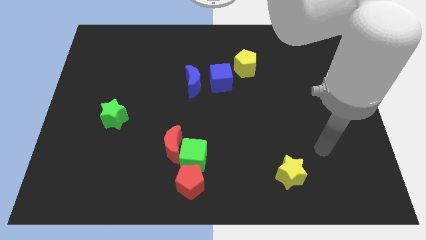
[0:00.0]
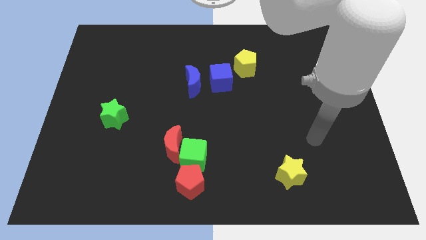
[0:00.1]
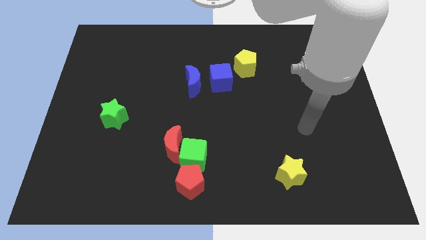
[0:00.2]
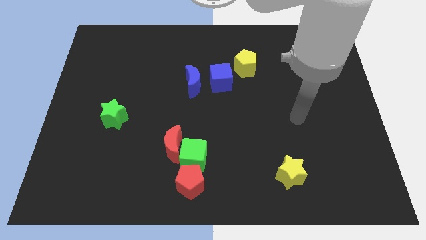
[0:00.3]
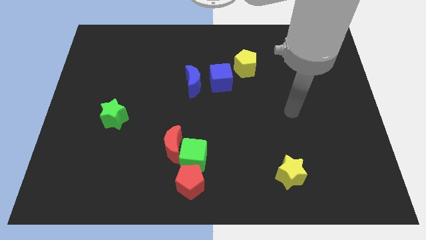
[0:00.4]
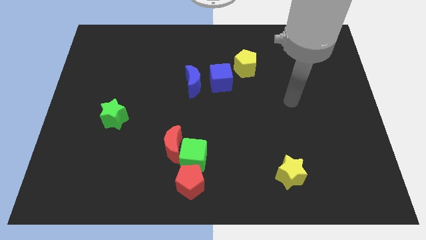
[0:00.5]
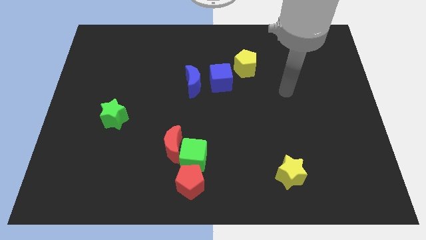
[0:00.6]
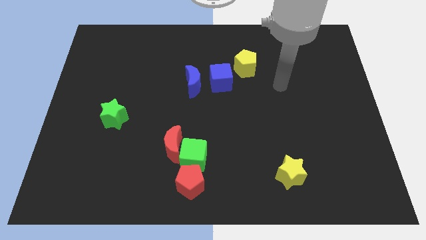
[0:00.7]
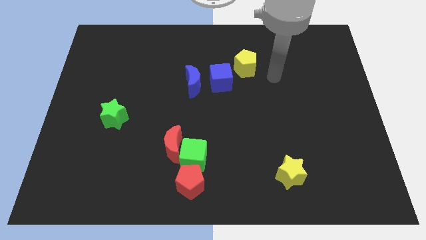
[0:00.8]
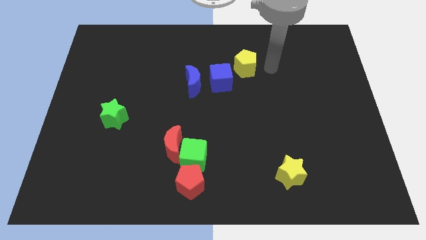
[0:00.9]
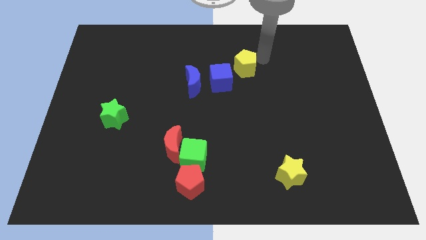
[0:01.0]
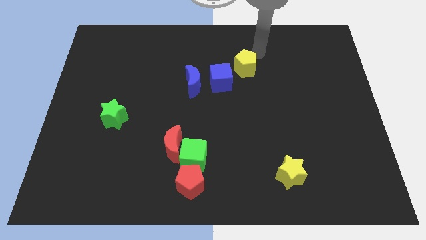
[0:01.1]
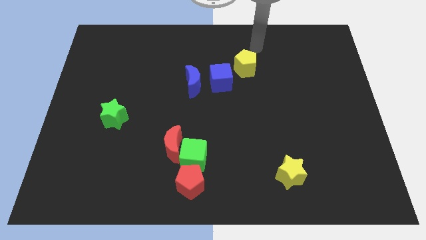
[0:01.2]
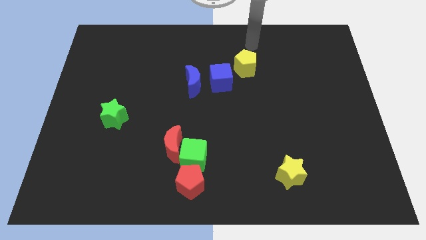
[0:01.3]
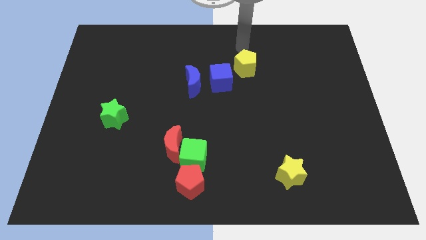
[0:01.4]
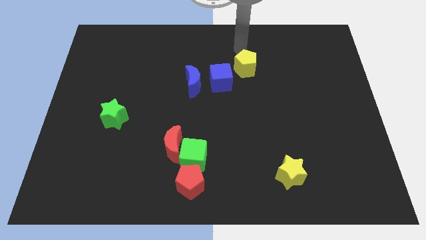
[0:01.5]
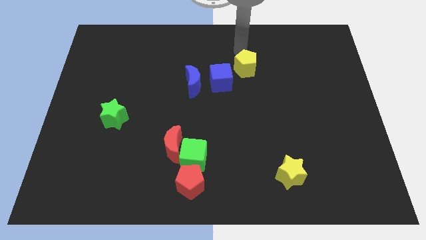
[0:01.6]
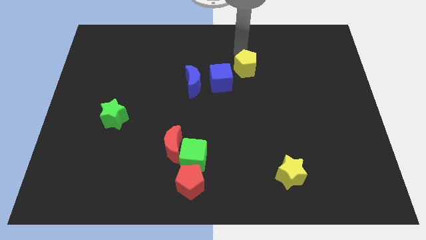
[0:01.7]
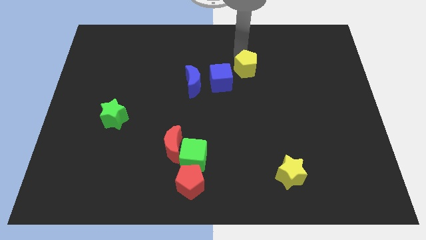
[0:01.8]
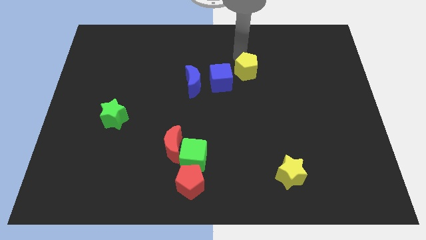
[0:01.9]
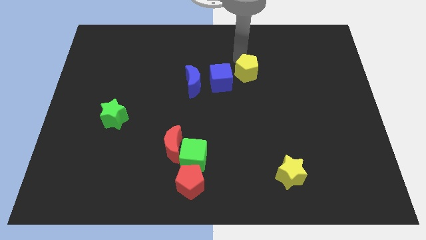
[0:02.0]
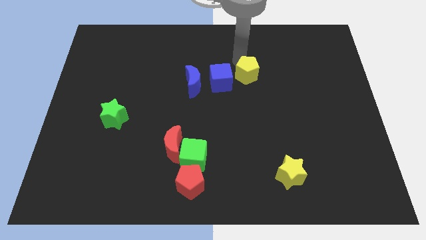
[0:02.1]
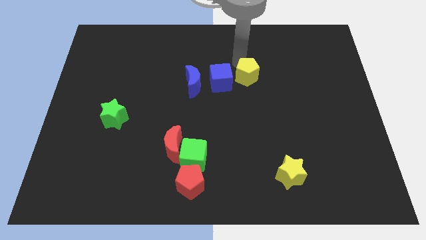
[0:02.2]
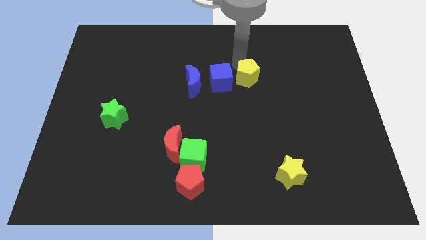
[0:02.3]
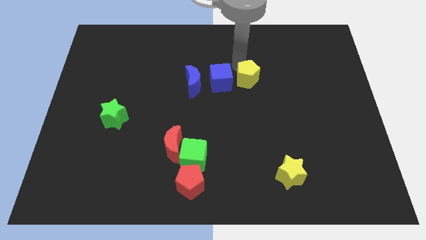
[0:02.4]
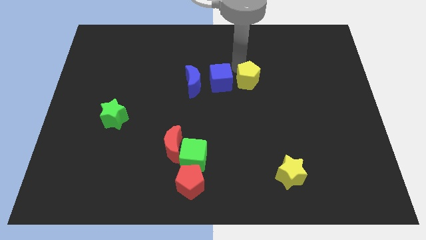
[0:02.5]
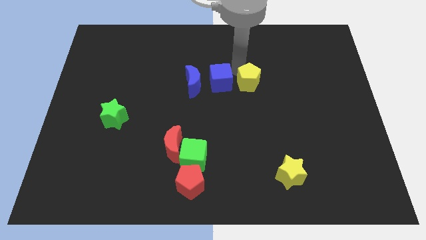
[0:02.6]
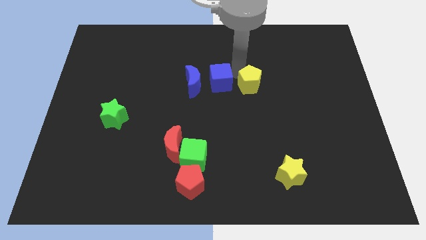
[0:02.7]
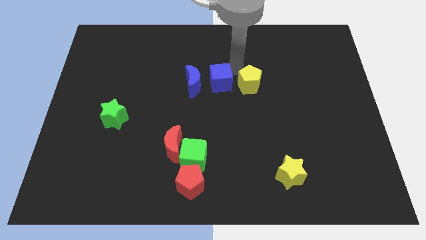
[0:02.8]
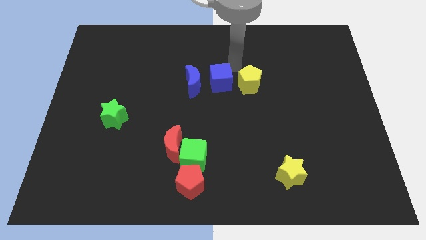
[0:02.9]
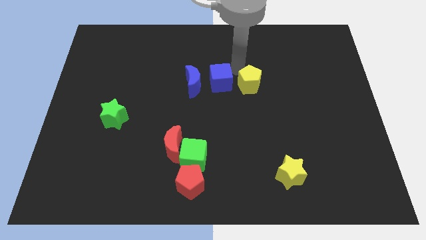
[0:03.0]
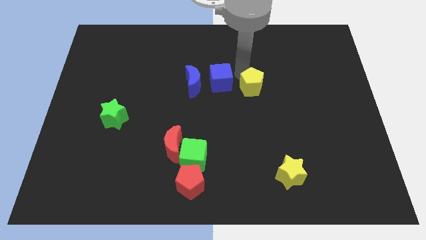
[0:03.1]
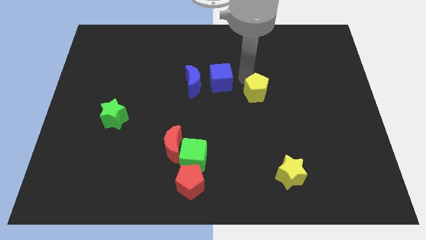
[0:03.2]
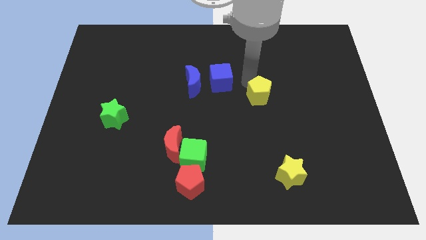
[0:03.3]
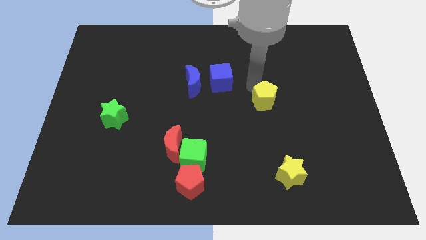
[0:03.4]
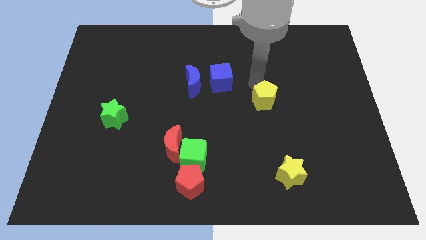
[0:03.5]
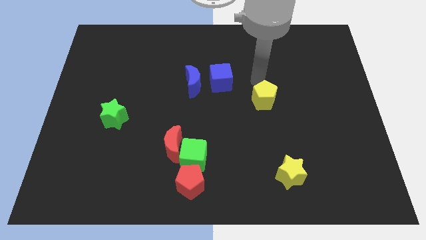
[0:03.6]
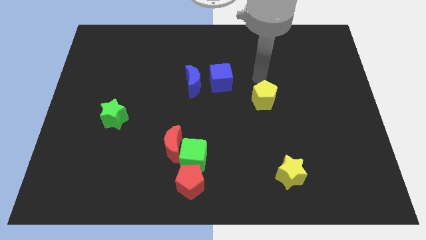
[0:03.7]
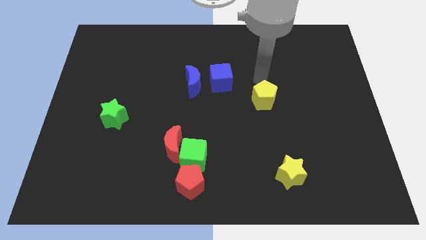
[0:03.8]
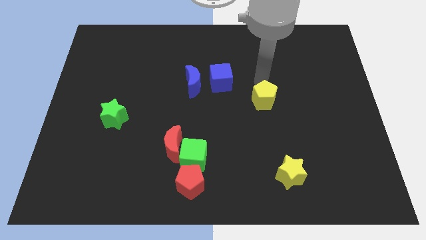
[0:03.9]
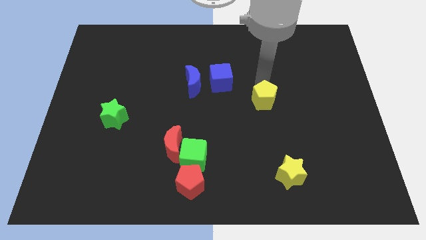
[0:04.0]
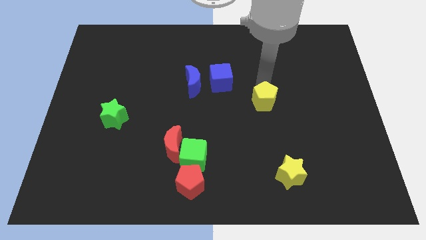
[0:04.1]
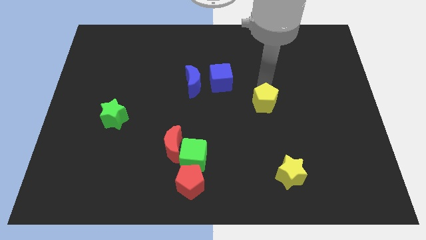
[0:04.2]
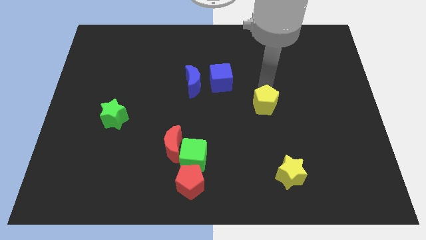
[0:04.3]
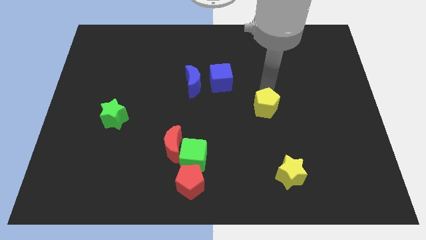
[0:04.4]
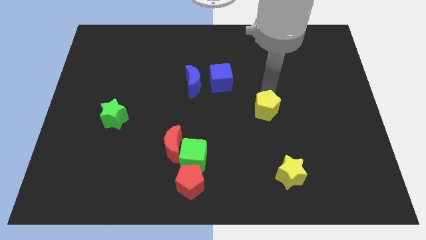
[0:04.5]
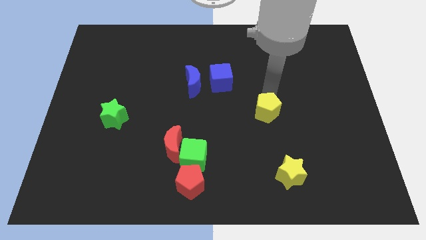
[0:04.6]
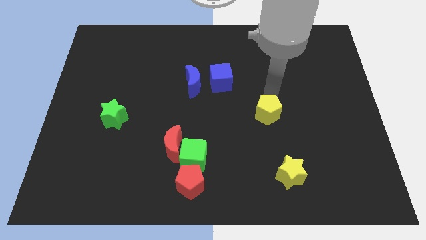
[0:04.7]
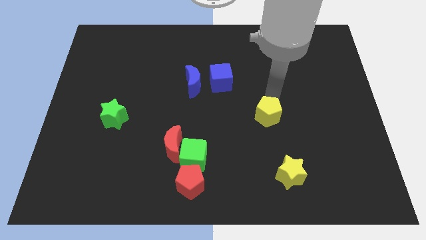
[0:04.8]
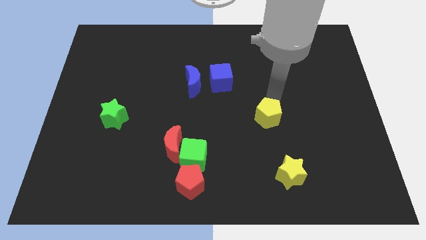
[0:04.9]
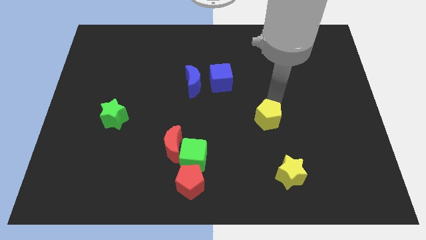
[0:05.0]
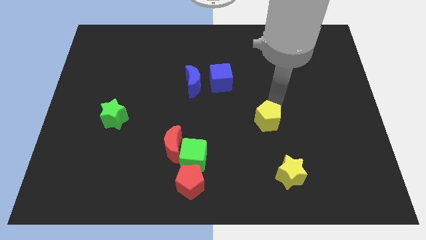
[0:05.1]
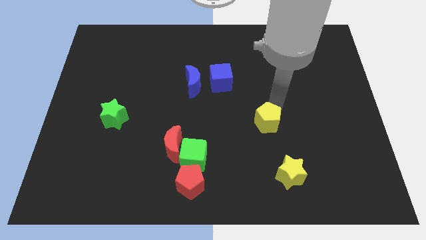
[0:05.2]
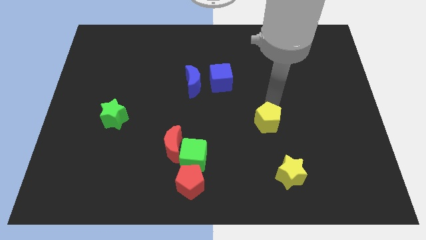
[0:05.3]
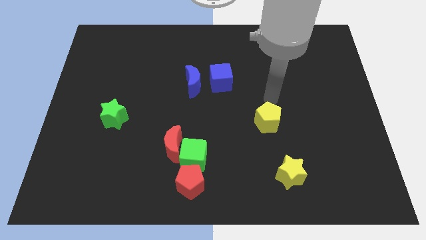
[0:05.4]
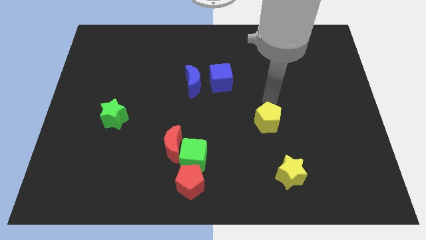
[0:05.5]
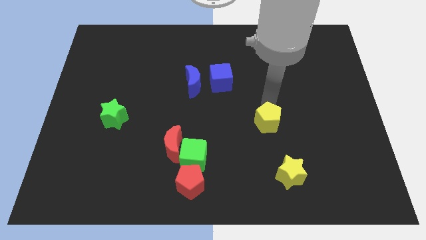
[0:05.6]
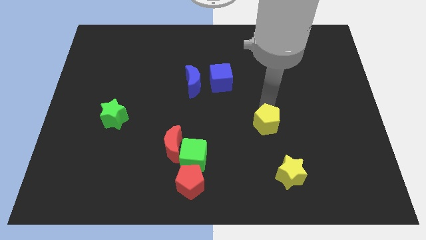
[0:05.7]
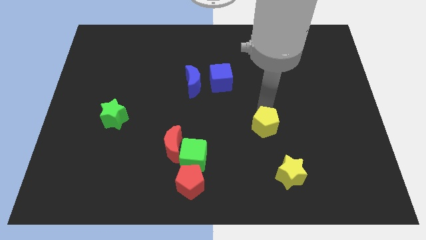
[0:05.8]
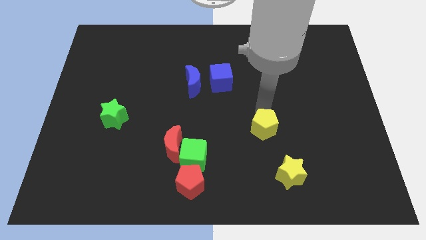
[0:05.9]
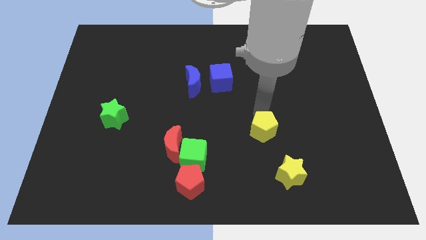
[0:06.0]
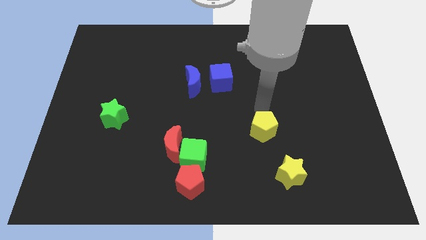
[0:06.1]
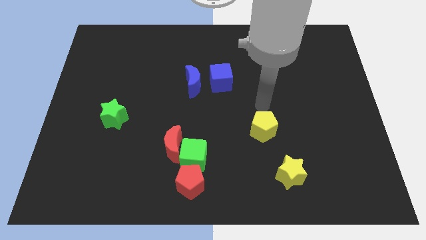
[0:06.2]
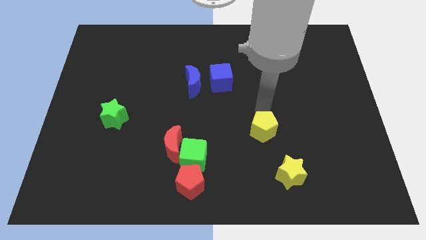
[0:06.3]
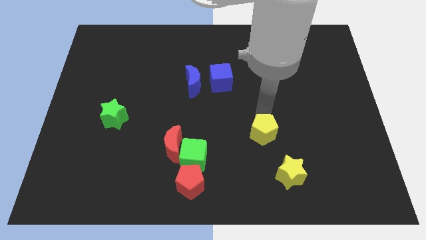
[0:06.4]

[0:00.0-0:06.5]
slide the yellow pentagon to the top left side of the yellow star
